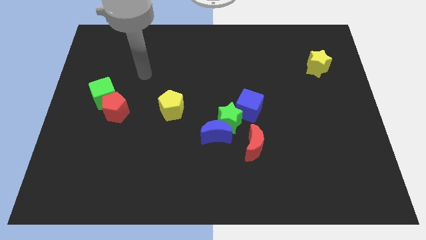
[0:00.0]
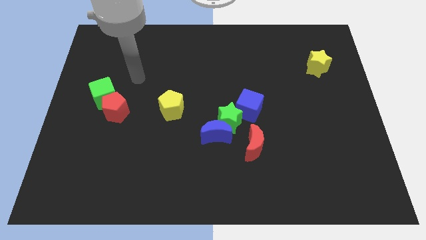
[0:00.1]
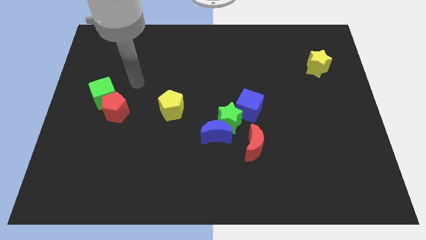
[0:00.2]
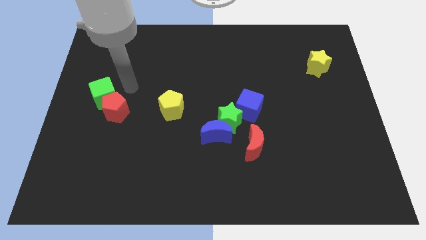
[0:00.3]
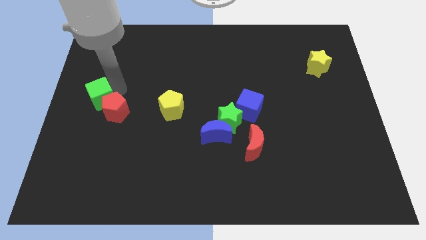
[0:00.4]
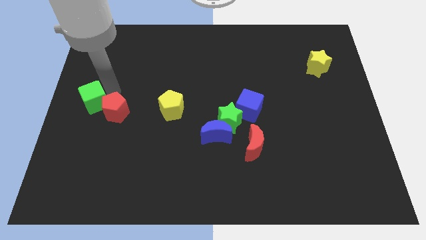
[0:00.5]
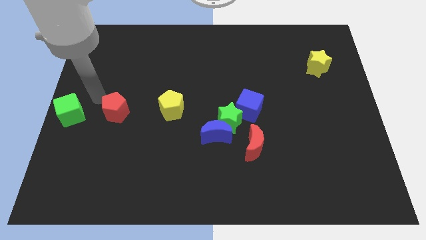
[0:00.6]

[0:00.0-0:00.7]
move the red pentagon away from the green cube

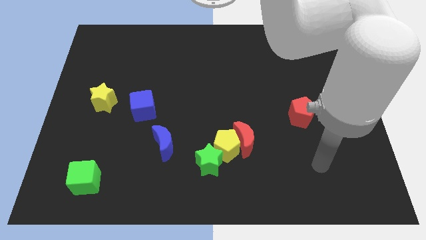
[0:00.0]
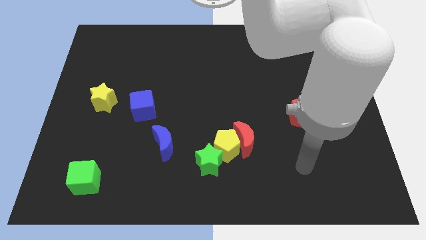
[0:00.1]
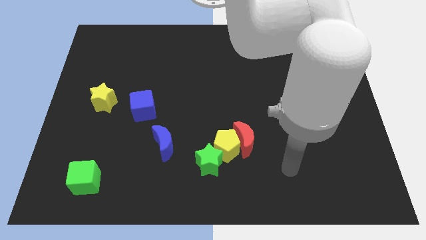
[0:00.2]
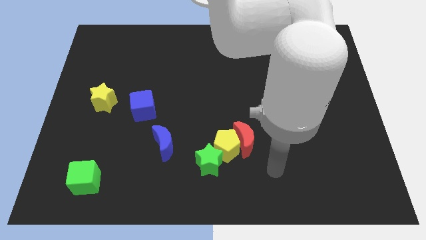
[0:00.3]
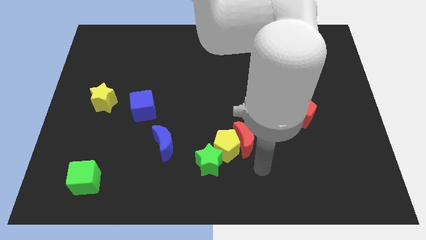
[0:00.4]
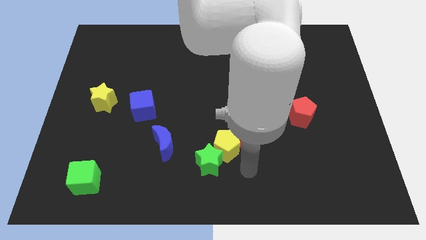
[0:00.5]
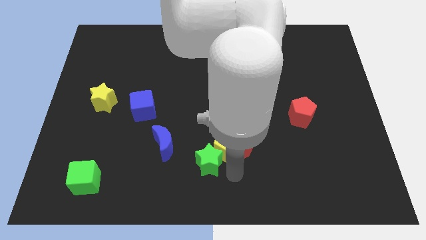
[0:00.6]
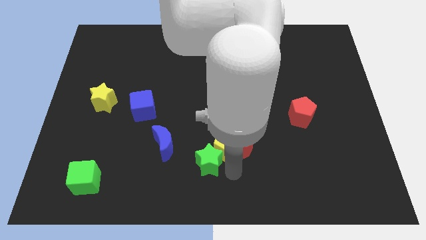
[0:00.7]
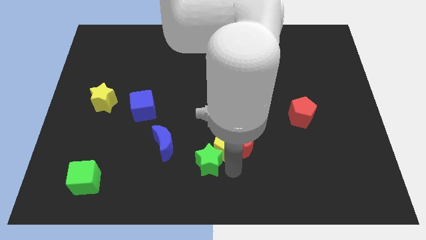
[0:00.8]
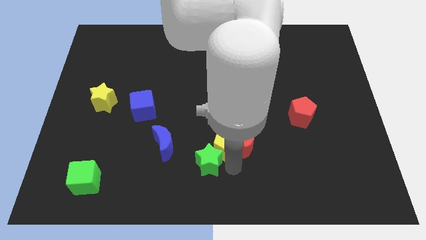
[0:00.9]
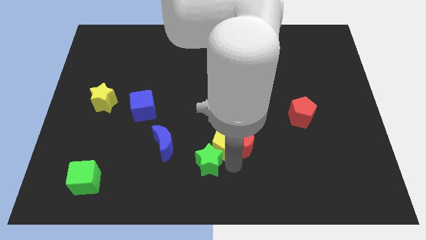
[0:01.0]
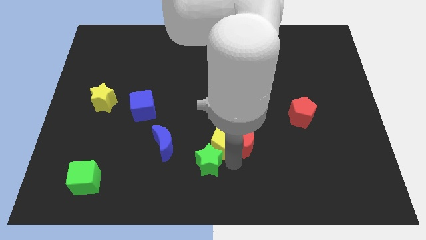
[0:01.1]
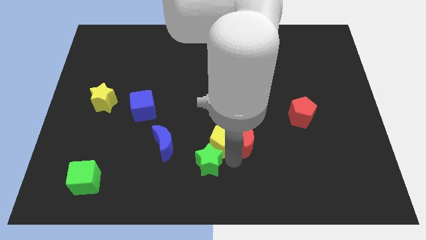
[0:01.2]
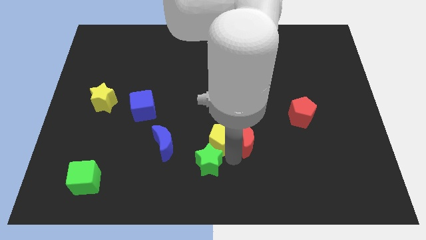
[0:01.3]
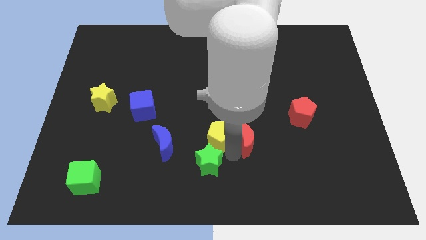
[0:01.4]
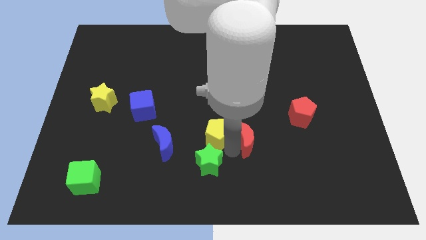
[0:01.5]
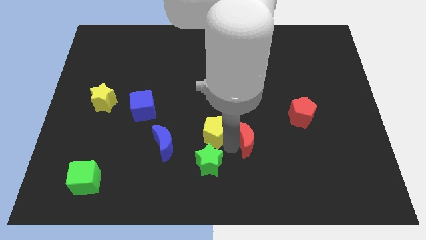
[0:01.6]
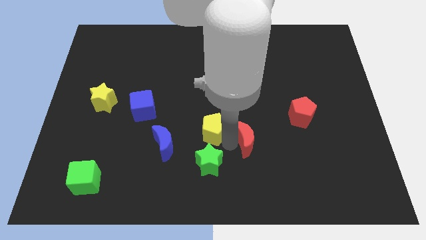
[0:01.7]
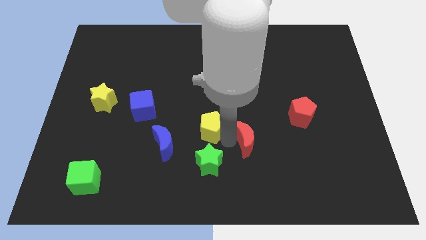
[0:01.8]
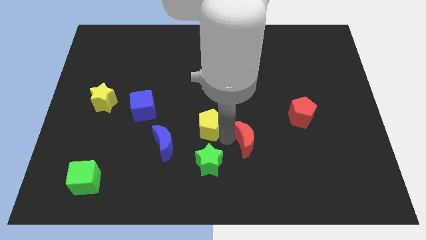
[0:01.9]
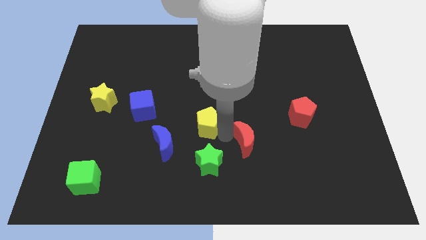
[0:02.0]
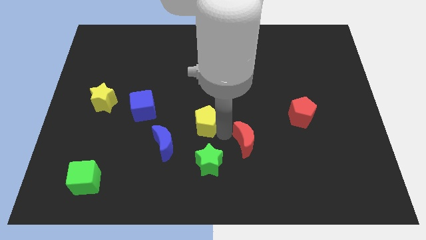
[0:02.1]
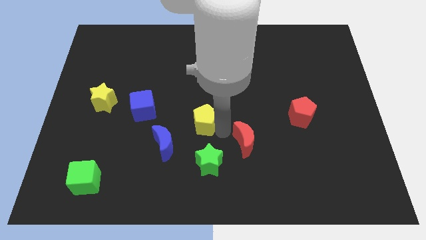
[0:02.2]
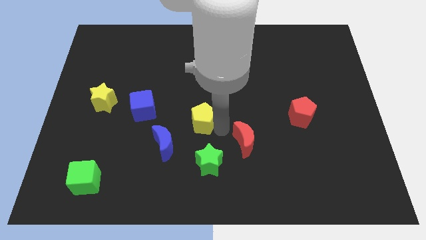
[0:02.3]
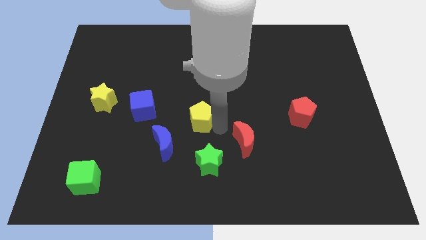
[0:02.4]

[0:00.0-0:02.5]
separate the yellow pentagon from the red moon and green star

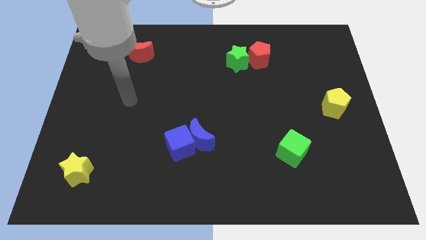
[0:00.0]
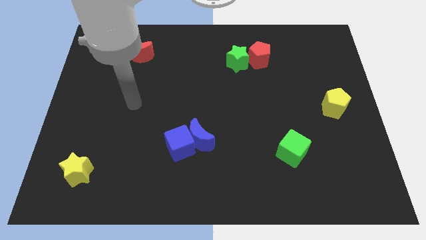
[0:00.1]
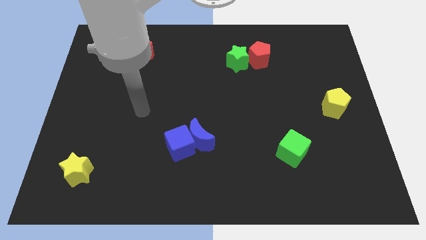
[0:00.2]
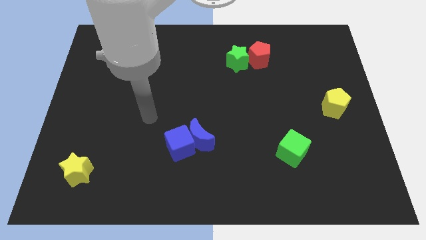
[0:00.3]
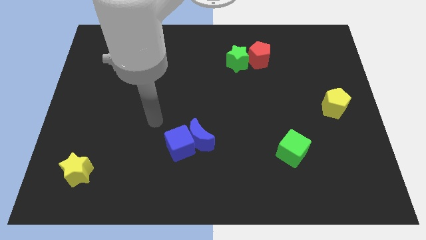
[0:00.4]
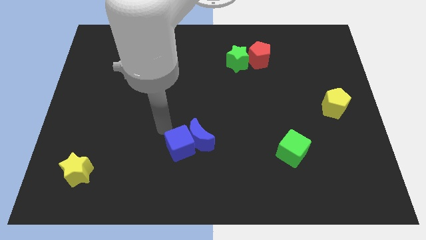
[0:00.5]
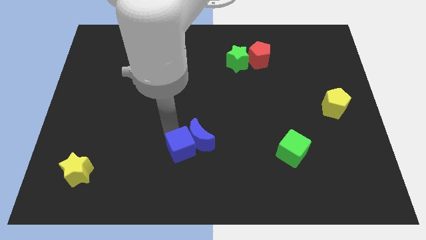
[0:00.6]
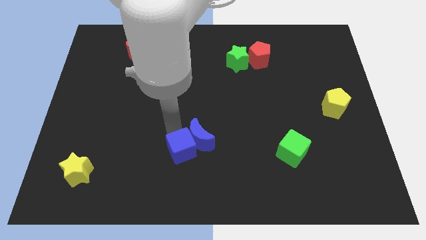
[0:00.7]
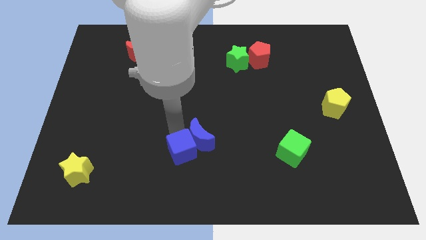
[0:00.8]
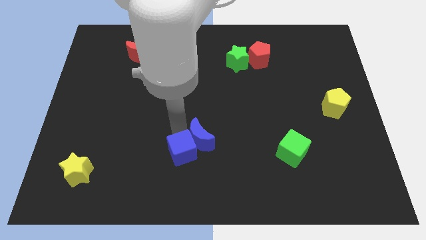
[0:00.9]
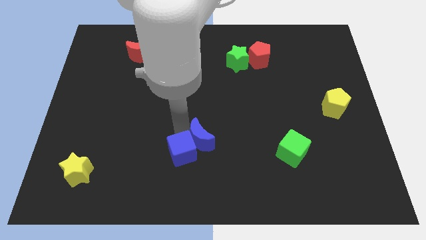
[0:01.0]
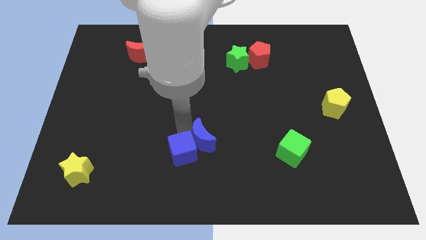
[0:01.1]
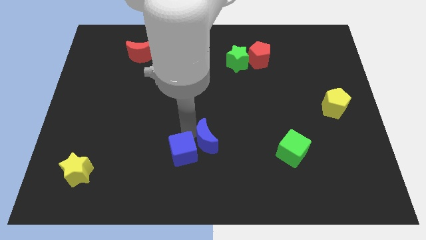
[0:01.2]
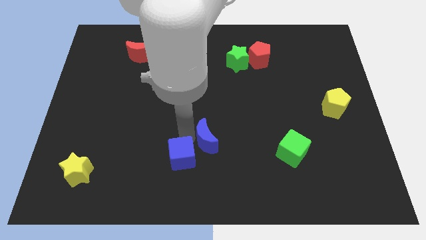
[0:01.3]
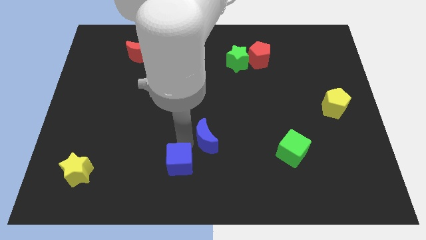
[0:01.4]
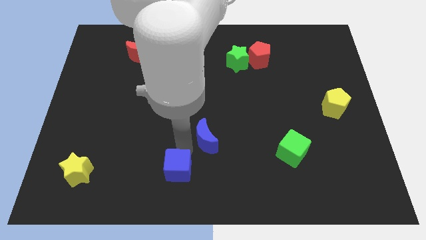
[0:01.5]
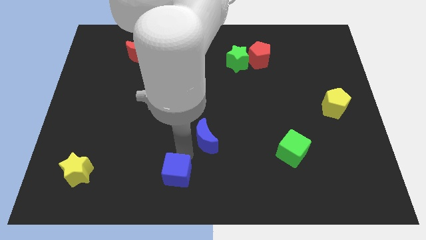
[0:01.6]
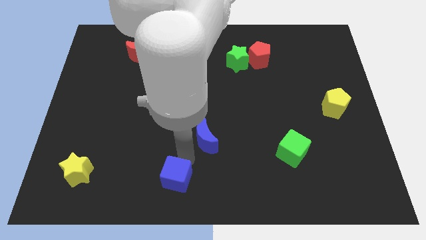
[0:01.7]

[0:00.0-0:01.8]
separate the blue moon from the blue cube

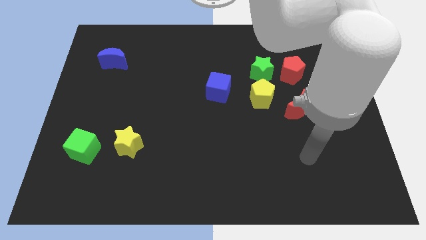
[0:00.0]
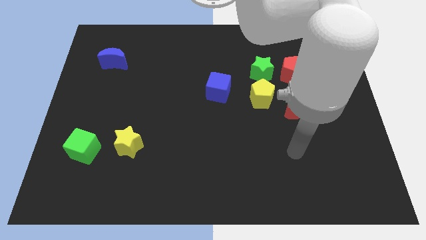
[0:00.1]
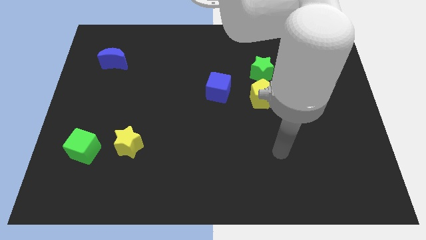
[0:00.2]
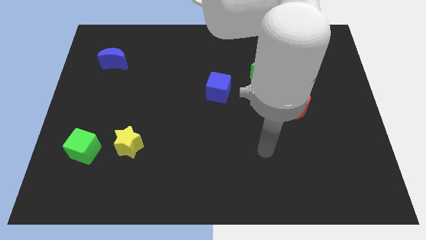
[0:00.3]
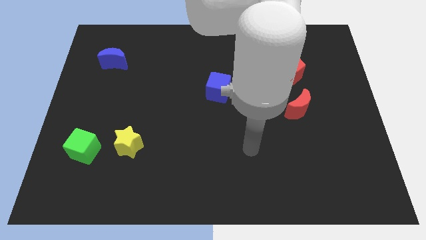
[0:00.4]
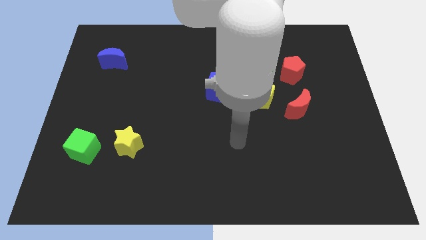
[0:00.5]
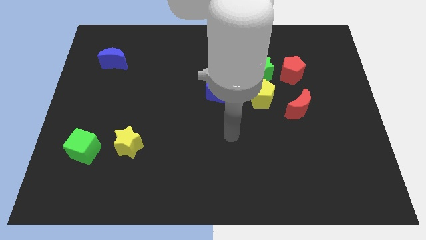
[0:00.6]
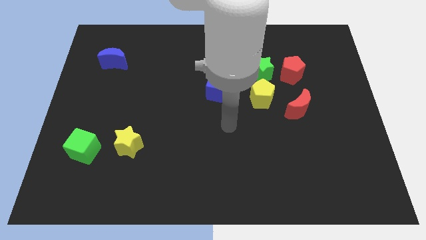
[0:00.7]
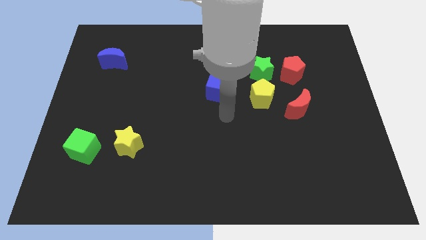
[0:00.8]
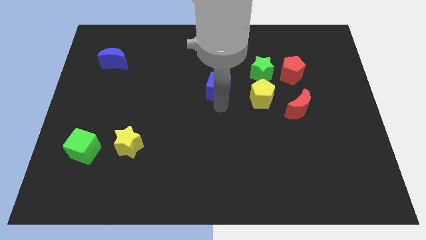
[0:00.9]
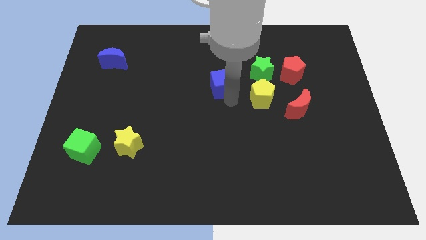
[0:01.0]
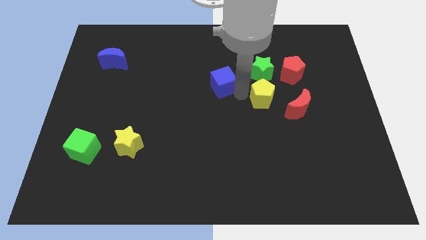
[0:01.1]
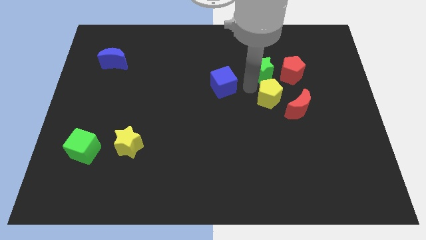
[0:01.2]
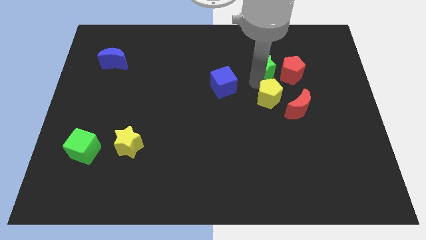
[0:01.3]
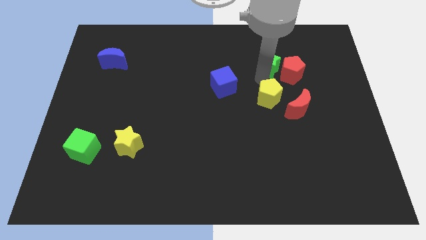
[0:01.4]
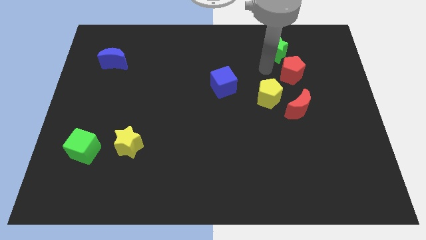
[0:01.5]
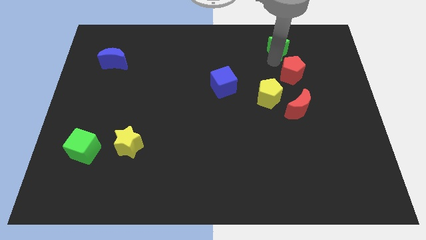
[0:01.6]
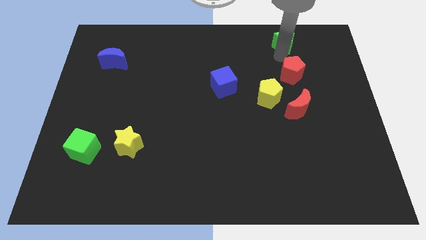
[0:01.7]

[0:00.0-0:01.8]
separate the red pentagon from the green star

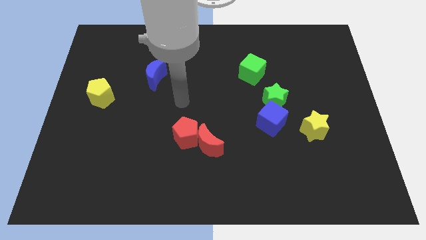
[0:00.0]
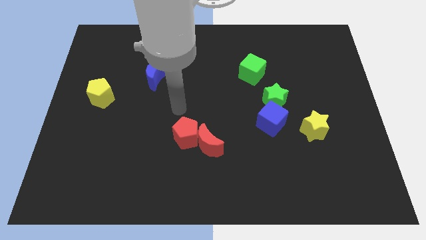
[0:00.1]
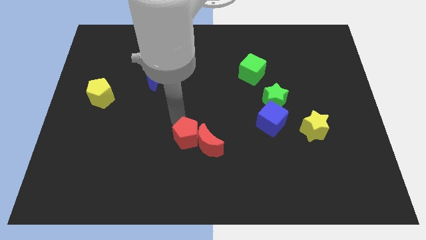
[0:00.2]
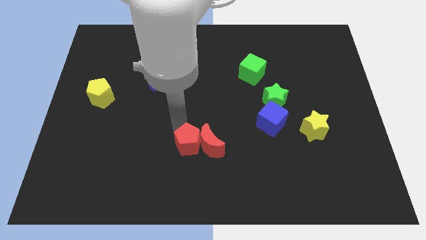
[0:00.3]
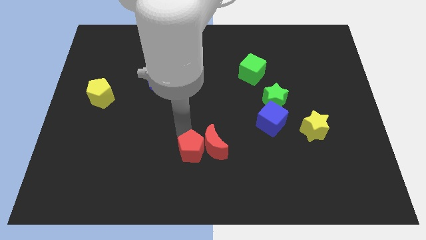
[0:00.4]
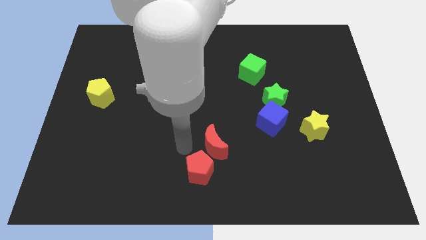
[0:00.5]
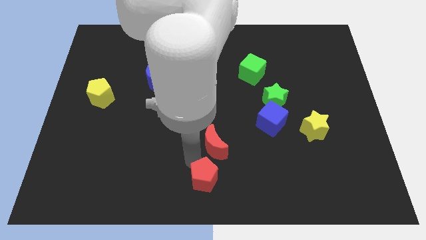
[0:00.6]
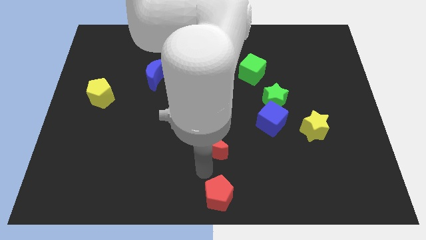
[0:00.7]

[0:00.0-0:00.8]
move the red moon away from the red pentagon

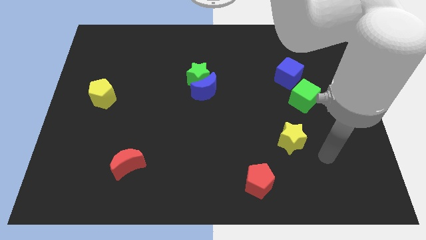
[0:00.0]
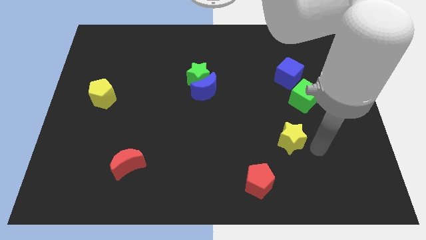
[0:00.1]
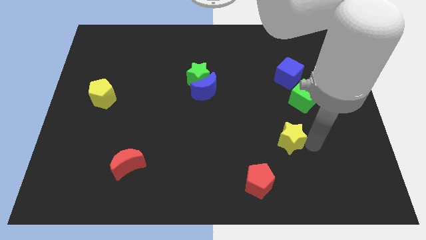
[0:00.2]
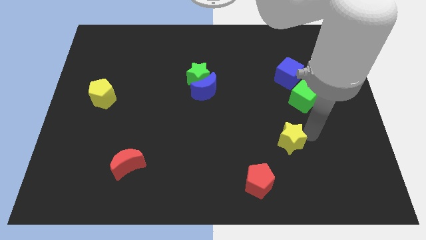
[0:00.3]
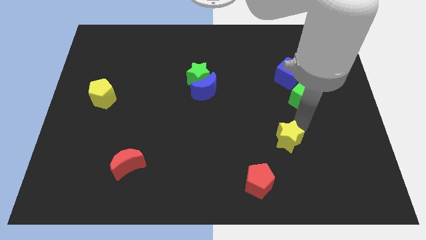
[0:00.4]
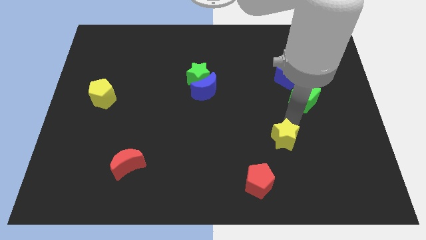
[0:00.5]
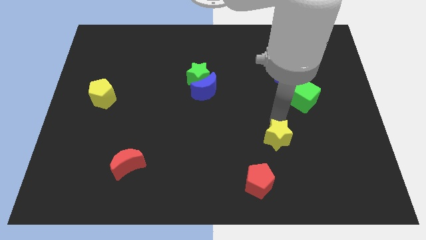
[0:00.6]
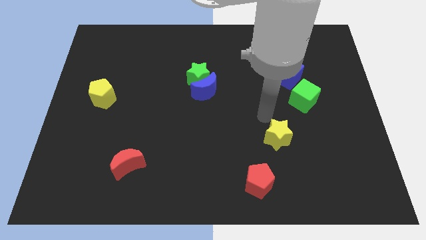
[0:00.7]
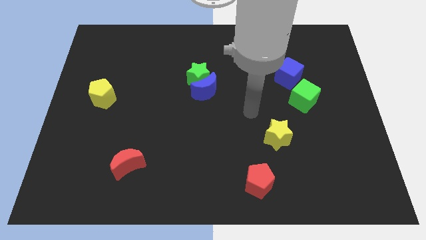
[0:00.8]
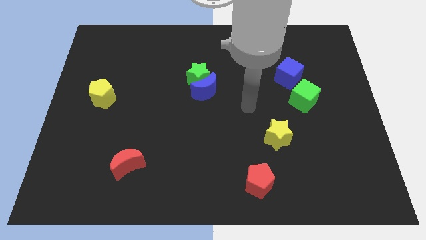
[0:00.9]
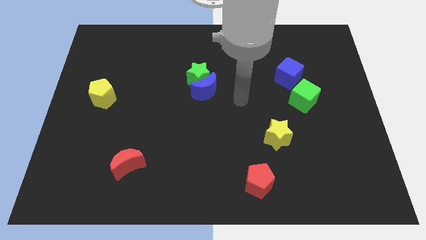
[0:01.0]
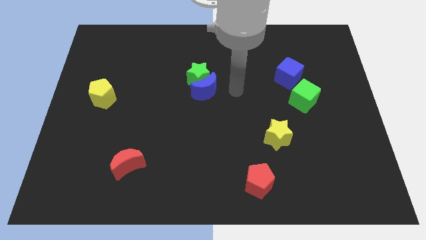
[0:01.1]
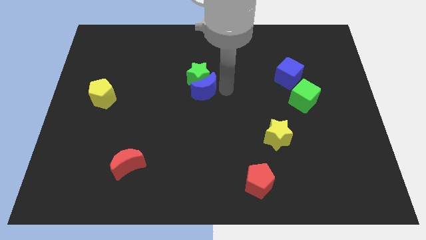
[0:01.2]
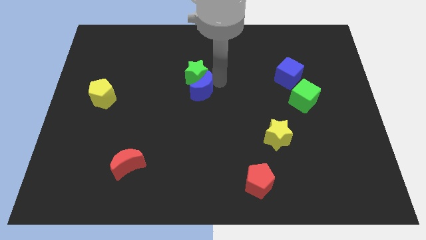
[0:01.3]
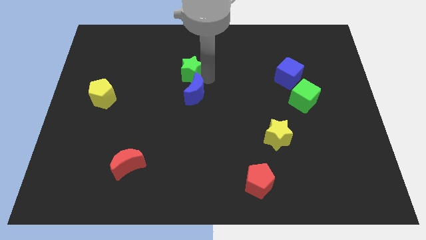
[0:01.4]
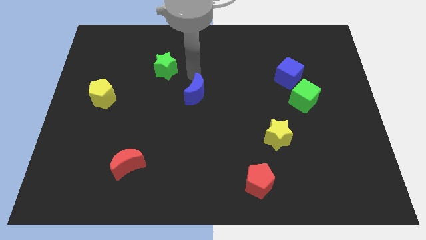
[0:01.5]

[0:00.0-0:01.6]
separate the blue moon from the green star
